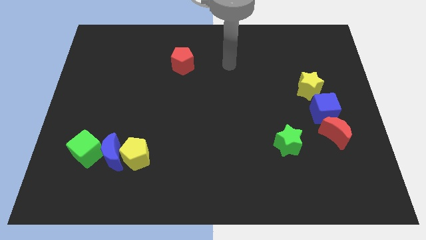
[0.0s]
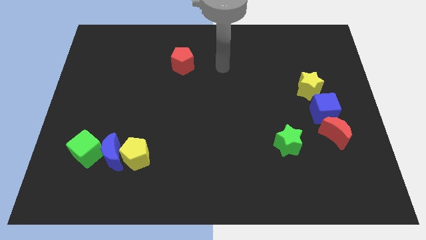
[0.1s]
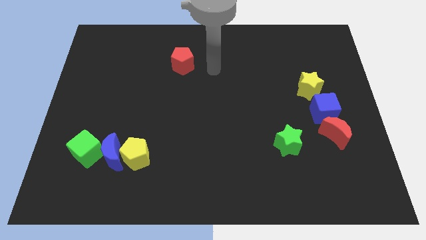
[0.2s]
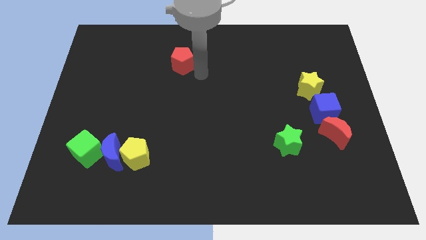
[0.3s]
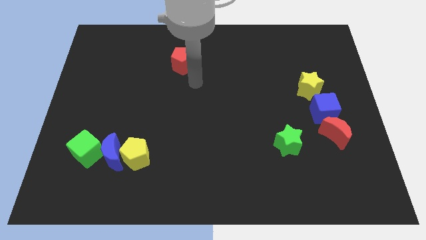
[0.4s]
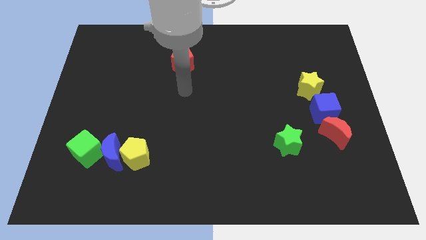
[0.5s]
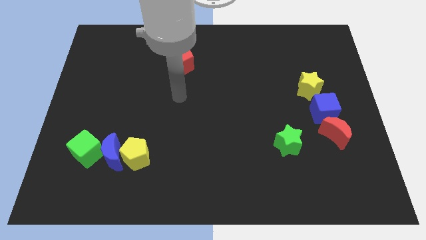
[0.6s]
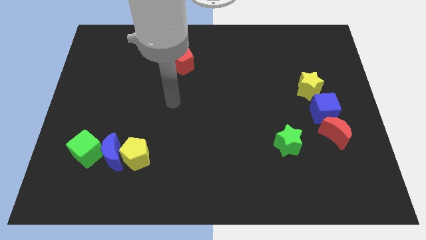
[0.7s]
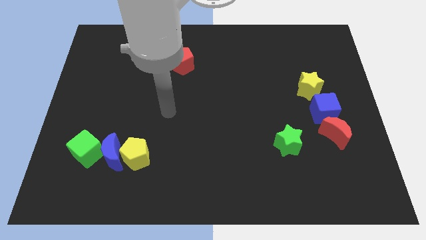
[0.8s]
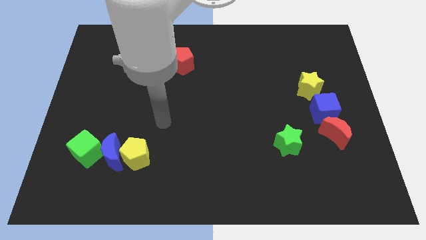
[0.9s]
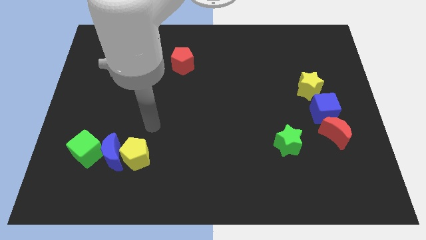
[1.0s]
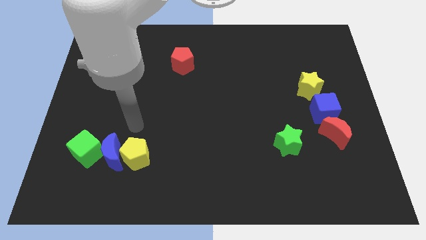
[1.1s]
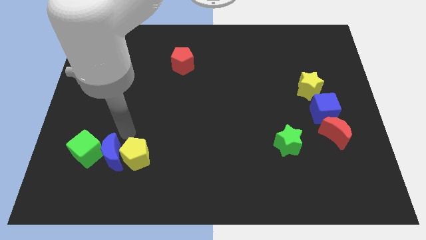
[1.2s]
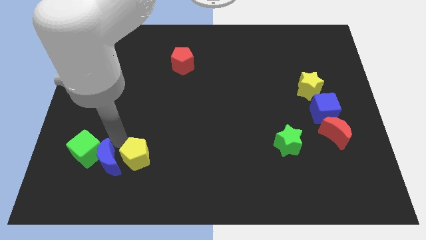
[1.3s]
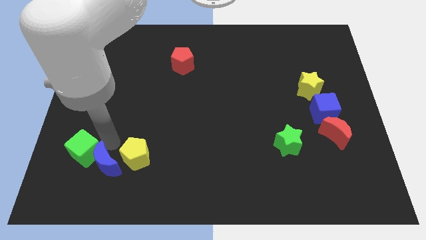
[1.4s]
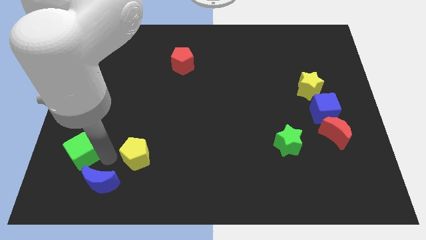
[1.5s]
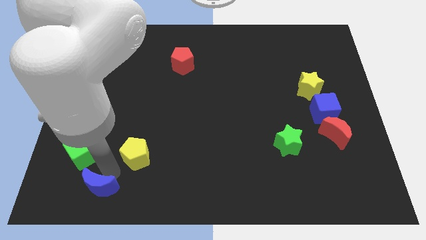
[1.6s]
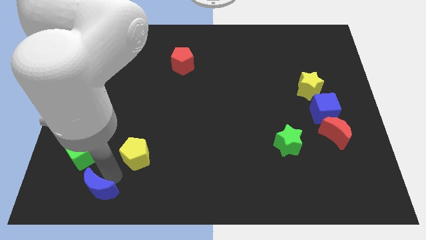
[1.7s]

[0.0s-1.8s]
move the yellow pentagon away from the blue moon

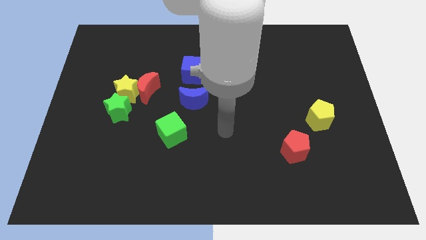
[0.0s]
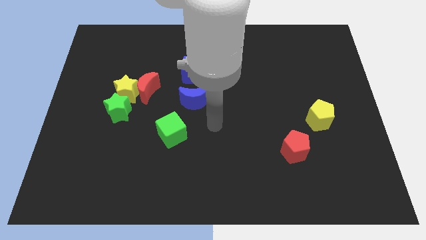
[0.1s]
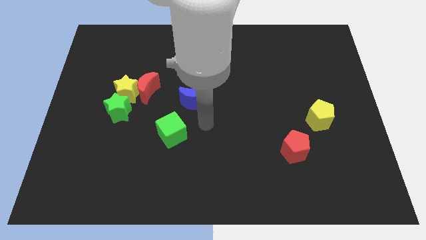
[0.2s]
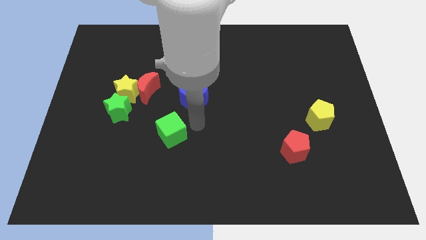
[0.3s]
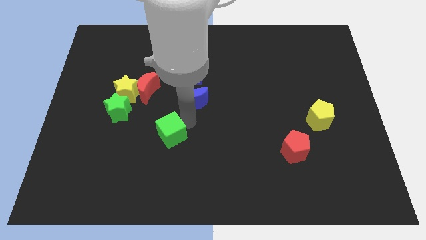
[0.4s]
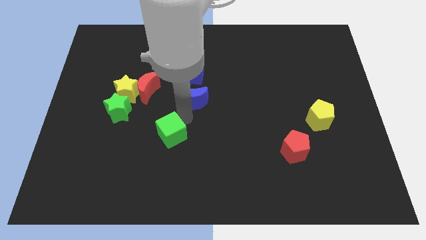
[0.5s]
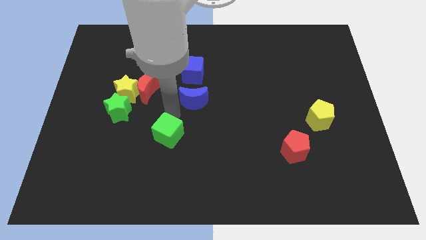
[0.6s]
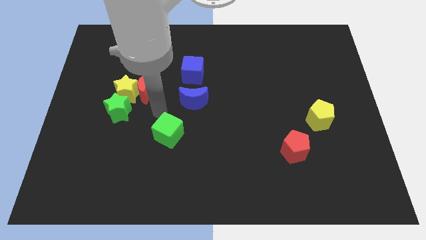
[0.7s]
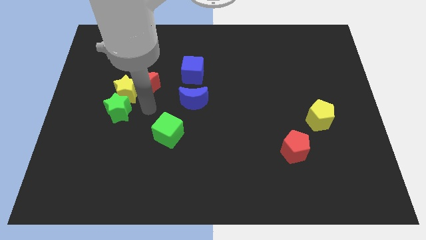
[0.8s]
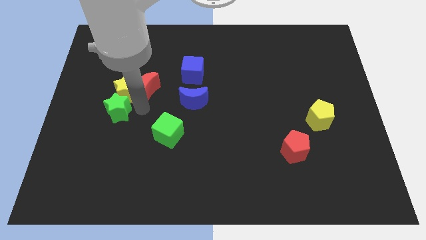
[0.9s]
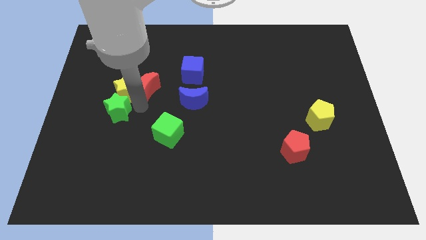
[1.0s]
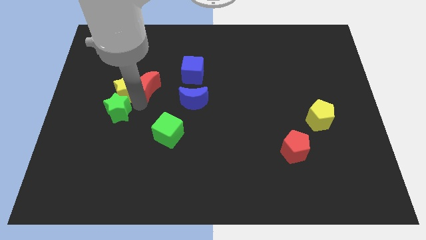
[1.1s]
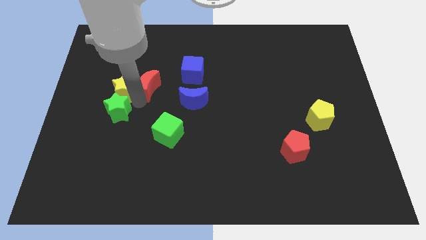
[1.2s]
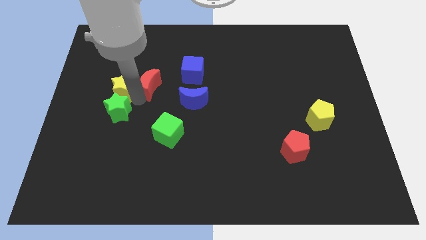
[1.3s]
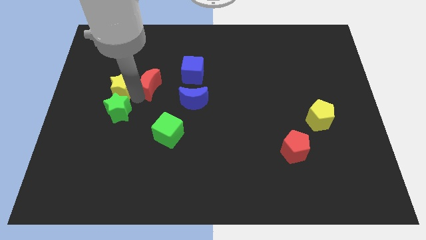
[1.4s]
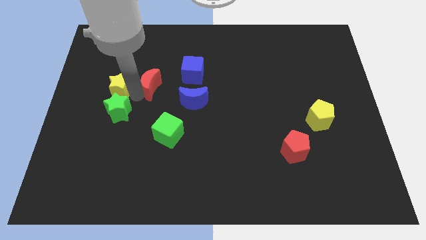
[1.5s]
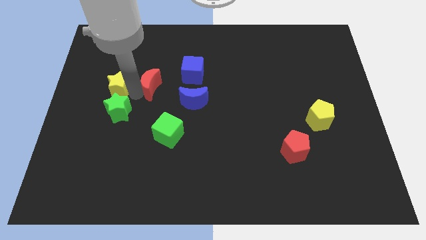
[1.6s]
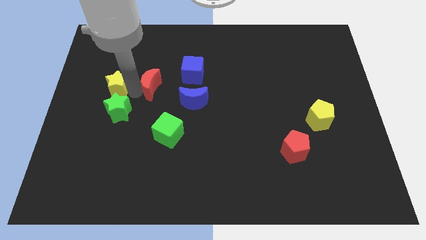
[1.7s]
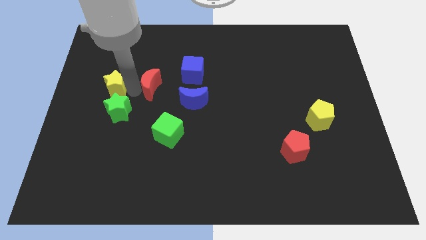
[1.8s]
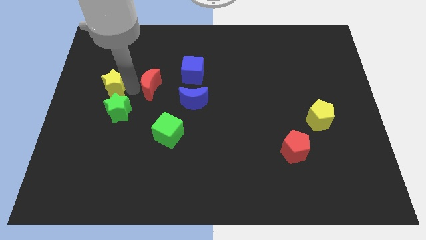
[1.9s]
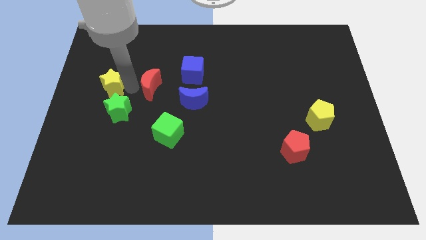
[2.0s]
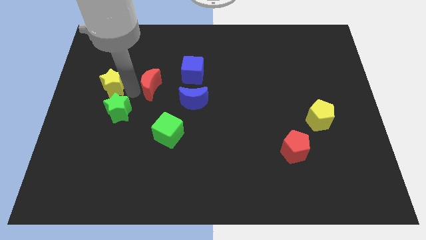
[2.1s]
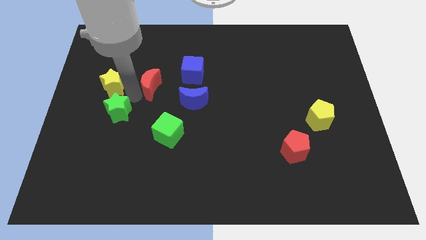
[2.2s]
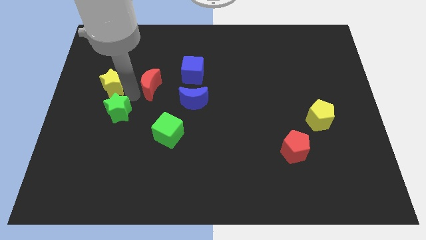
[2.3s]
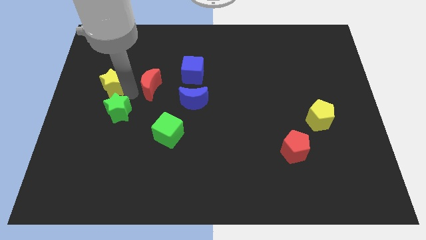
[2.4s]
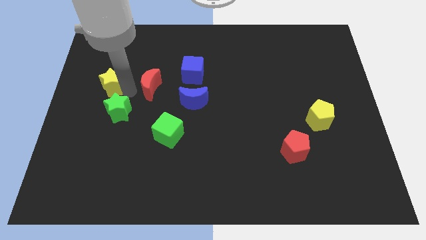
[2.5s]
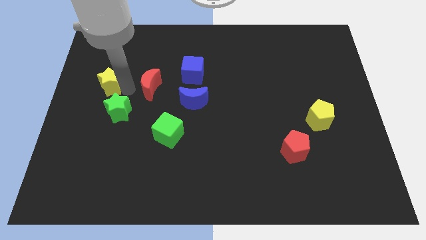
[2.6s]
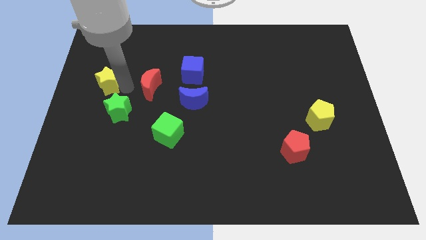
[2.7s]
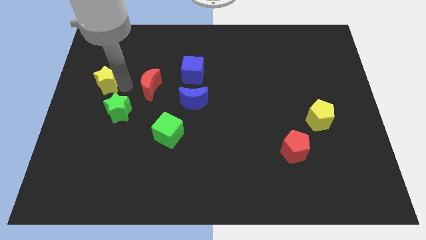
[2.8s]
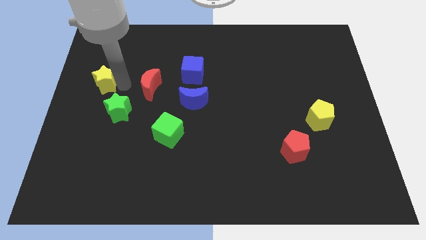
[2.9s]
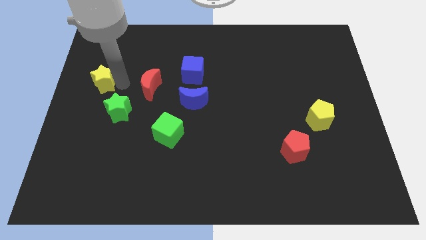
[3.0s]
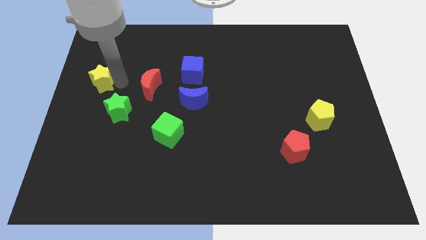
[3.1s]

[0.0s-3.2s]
move the yellow star away from the red moon and green star

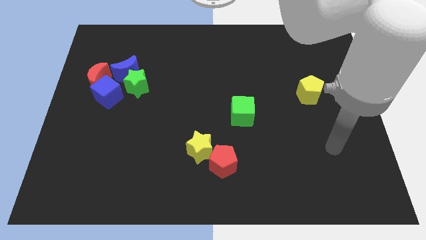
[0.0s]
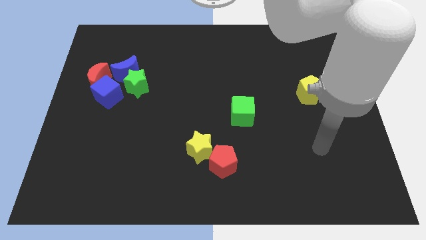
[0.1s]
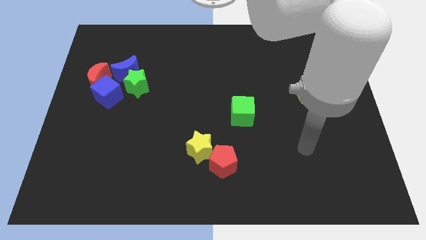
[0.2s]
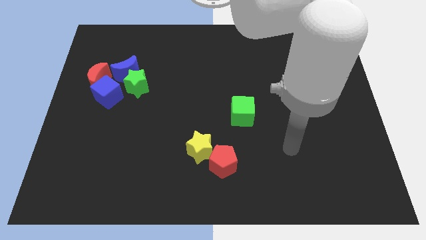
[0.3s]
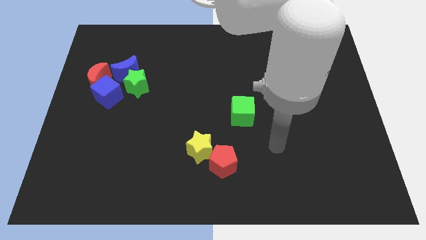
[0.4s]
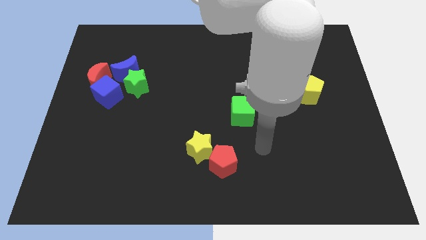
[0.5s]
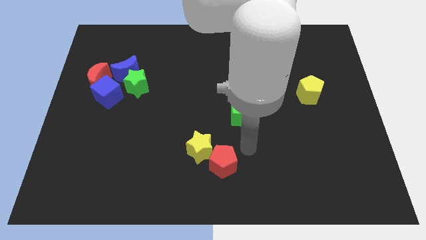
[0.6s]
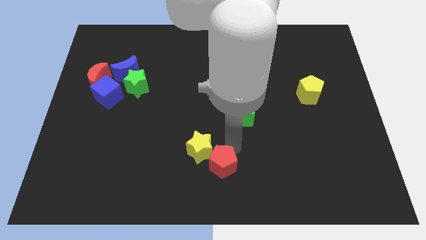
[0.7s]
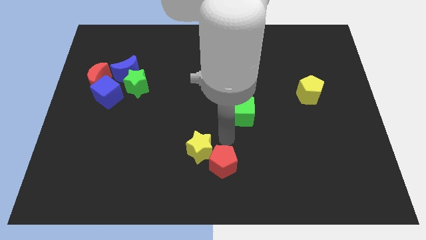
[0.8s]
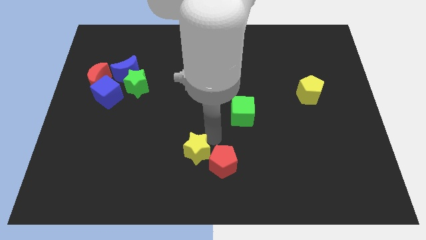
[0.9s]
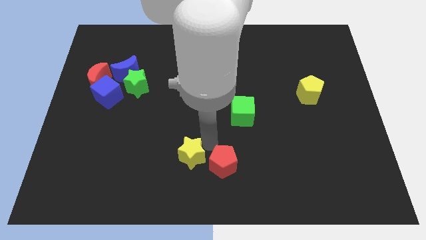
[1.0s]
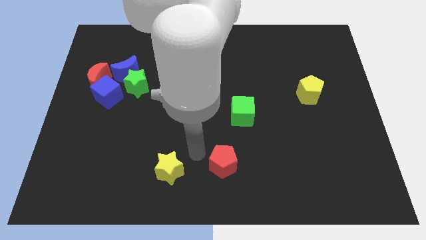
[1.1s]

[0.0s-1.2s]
move the red pentagon away from the yellow star

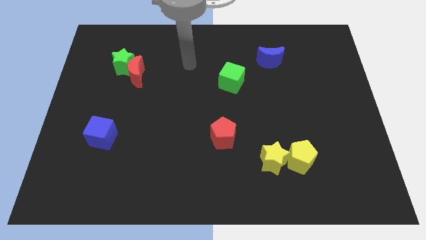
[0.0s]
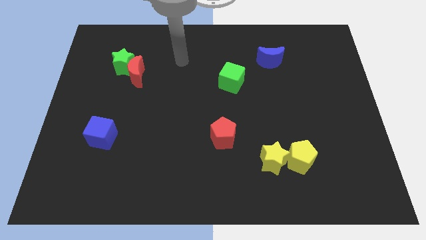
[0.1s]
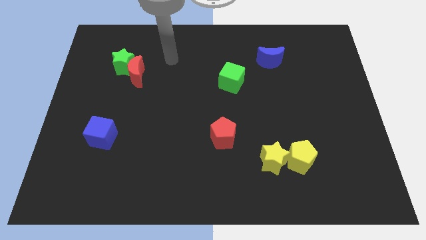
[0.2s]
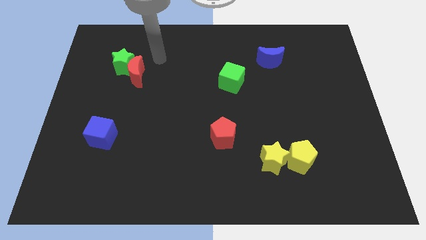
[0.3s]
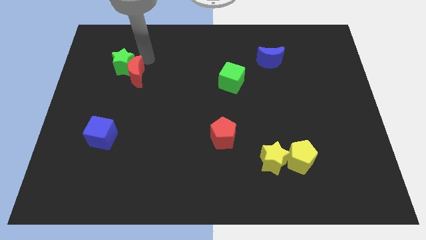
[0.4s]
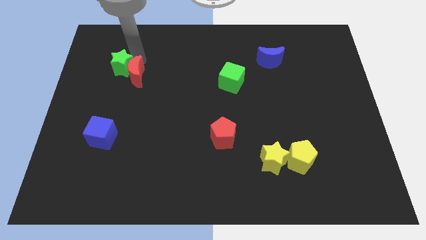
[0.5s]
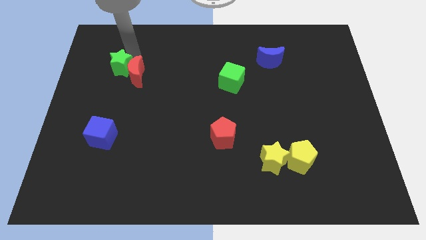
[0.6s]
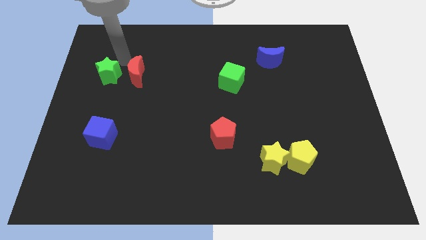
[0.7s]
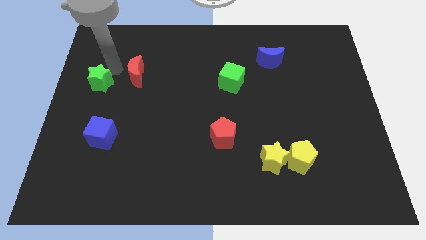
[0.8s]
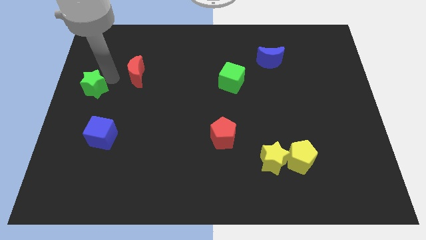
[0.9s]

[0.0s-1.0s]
separate the red moon from the green star

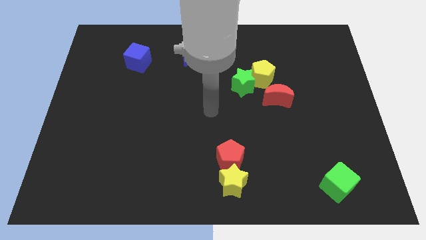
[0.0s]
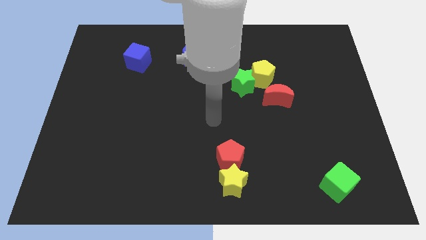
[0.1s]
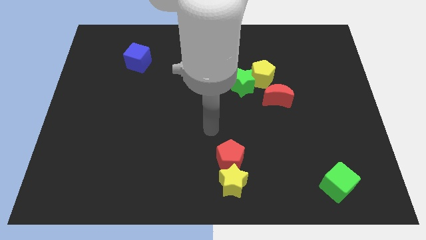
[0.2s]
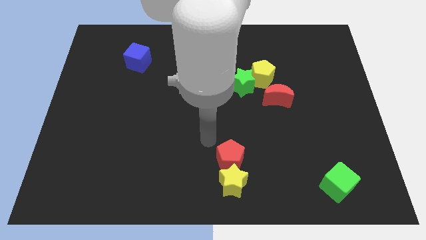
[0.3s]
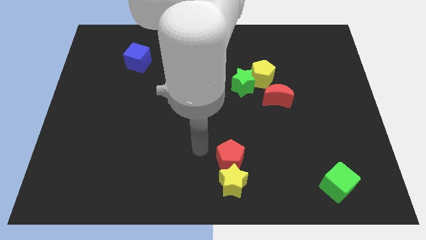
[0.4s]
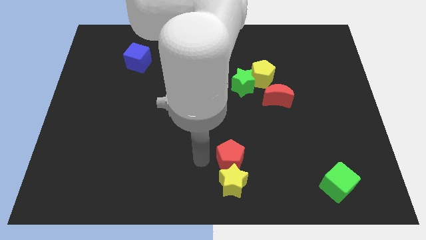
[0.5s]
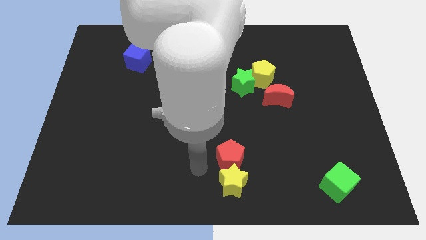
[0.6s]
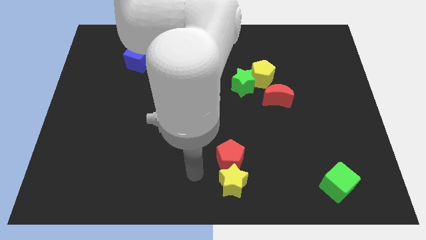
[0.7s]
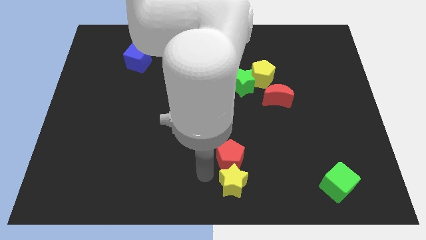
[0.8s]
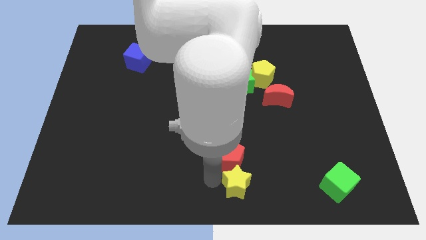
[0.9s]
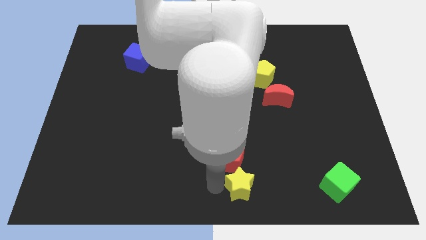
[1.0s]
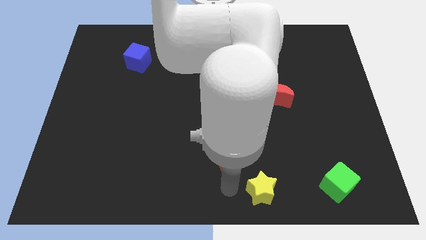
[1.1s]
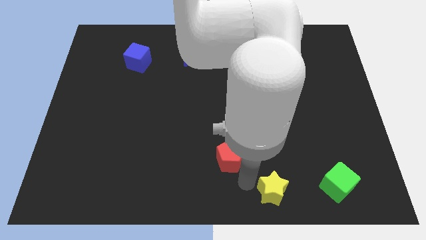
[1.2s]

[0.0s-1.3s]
separate the red pentagon from the yellow star

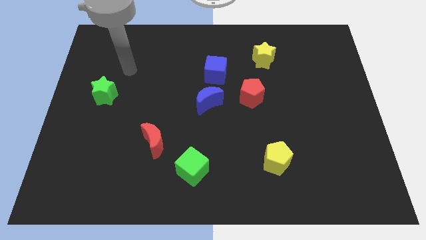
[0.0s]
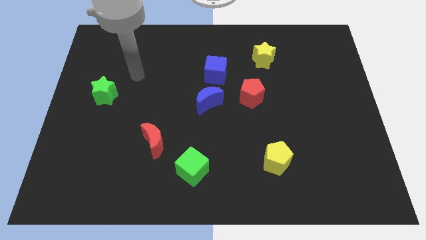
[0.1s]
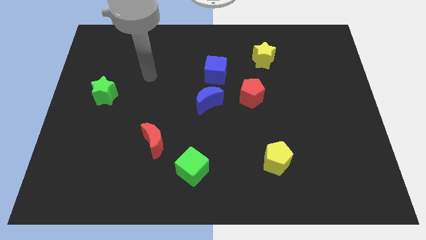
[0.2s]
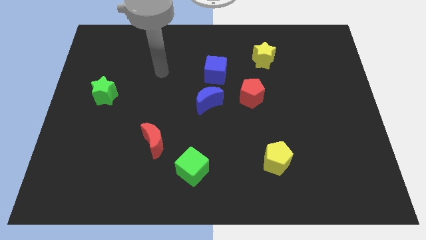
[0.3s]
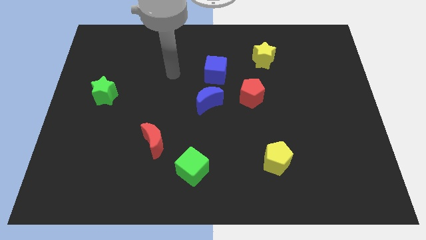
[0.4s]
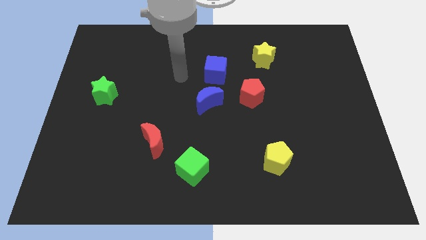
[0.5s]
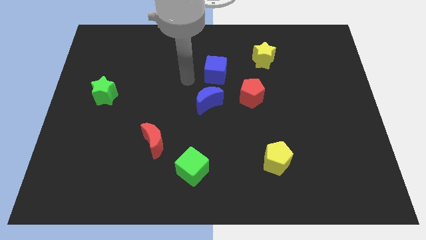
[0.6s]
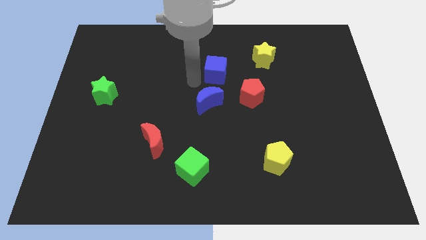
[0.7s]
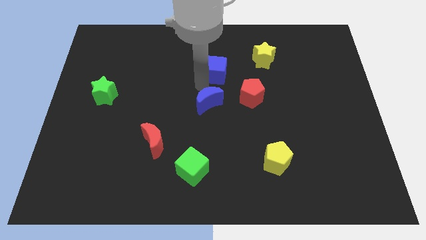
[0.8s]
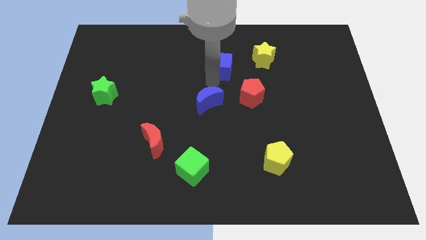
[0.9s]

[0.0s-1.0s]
pull the blue moon apart from the blue cube
